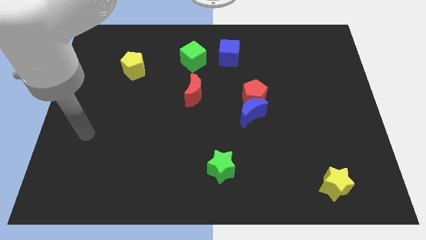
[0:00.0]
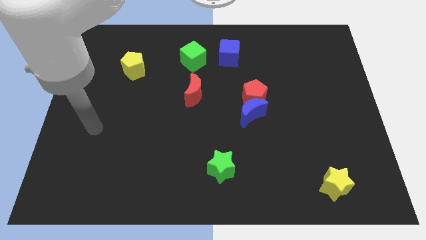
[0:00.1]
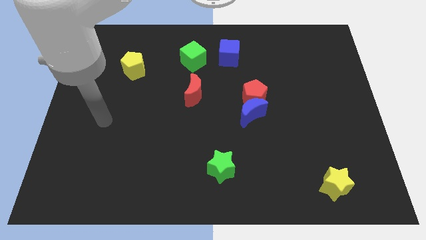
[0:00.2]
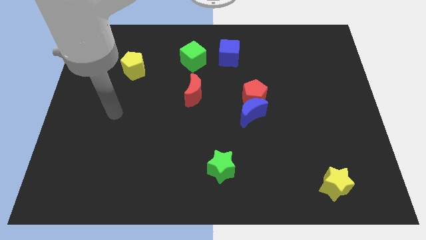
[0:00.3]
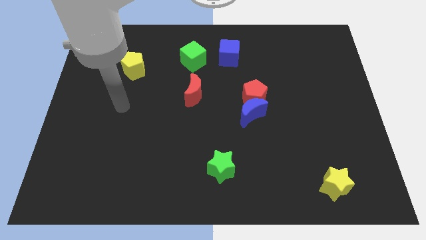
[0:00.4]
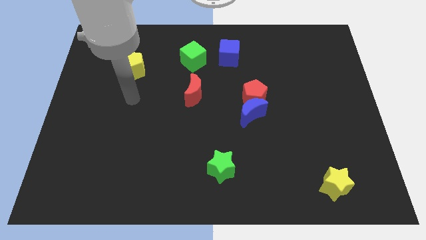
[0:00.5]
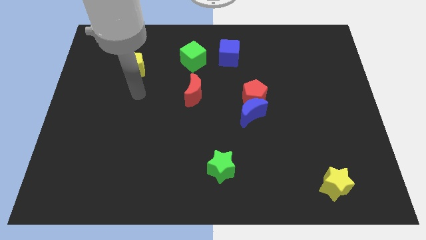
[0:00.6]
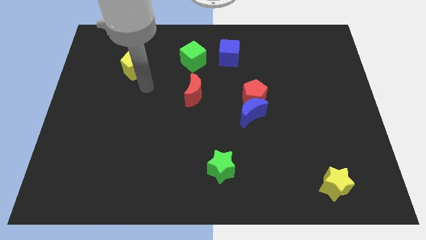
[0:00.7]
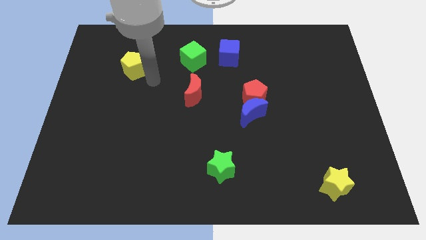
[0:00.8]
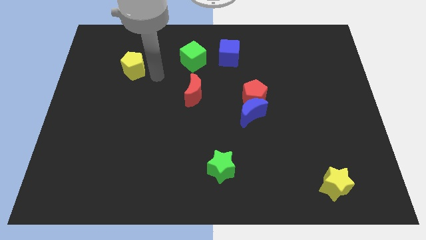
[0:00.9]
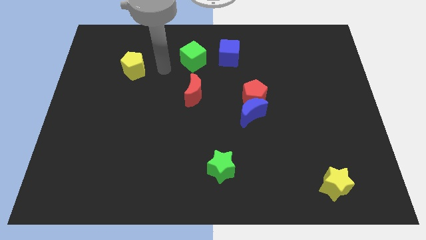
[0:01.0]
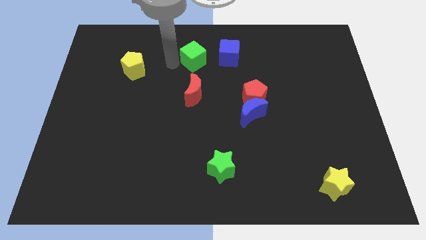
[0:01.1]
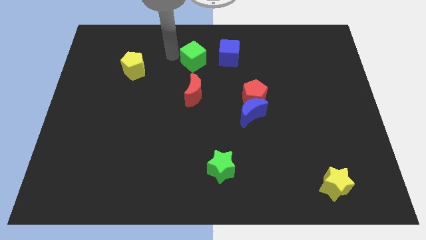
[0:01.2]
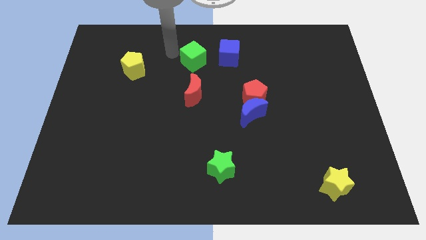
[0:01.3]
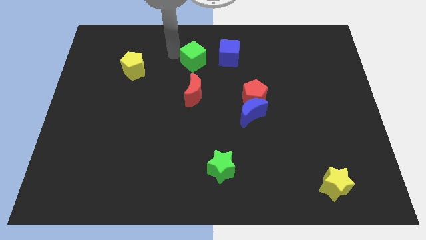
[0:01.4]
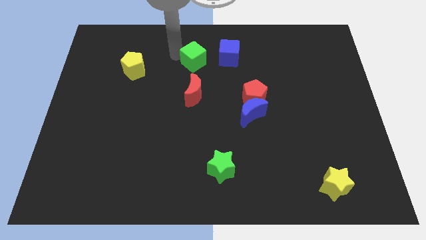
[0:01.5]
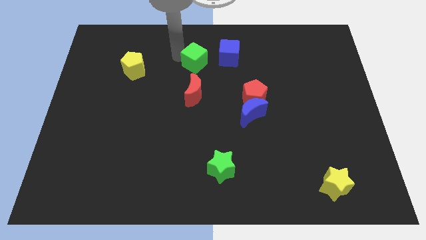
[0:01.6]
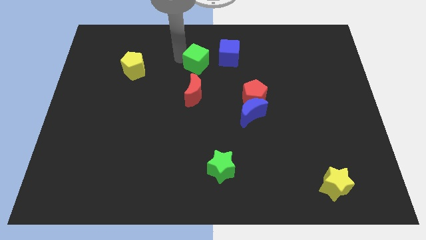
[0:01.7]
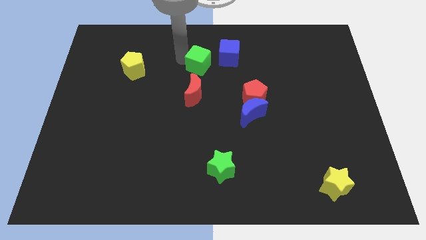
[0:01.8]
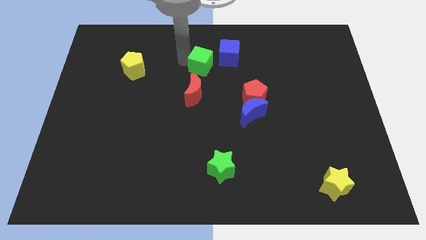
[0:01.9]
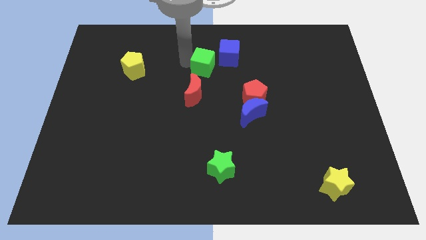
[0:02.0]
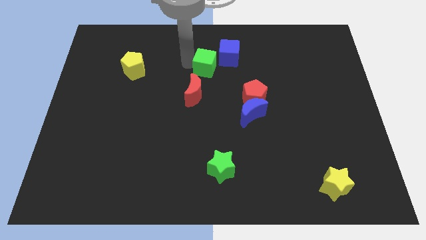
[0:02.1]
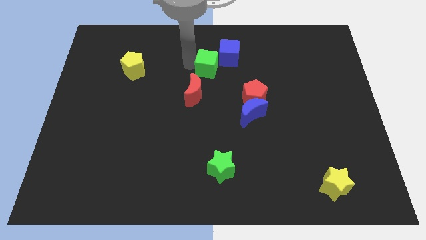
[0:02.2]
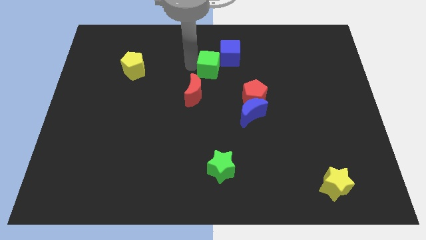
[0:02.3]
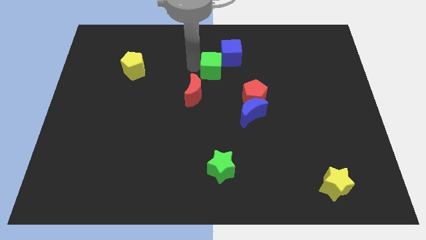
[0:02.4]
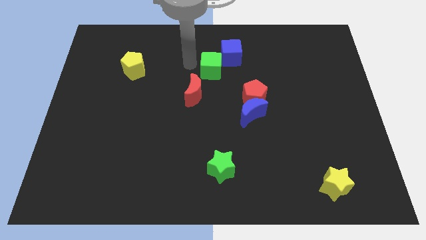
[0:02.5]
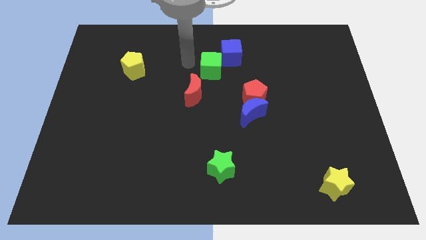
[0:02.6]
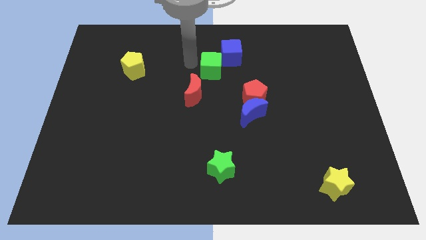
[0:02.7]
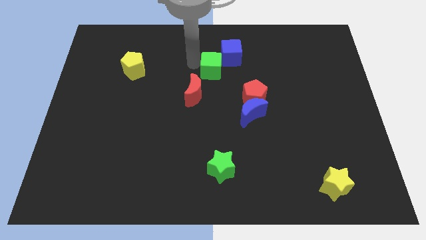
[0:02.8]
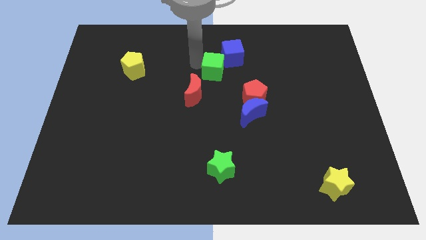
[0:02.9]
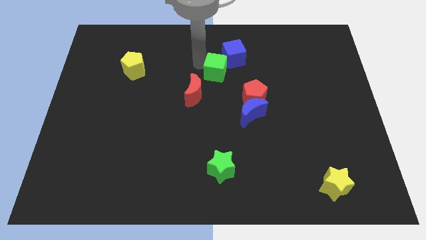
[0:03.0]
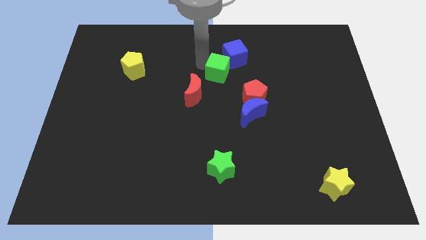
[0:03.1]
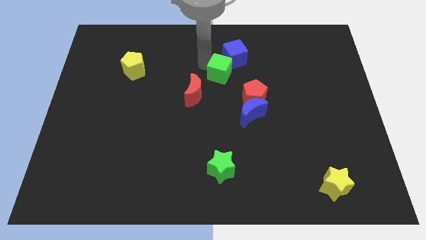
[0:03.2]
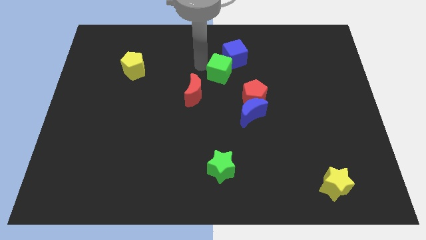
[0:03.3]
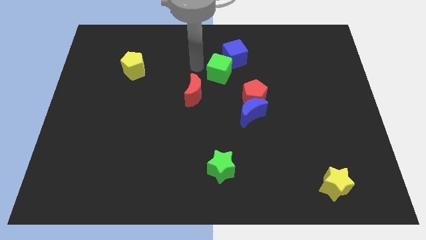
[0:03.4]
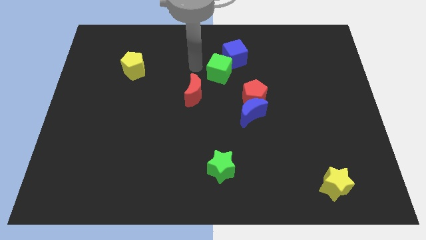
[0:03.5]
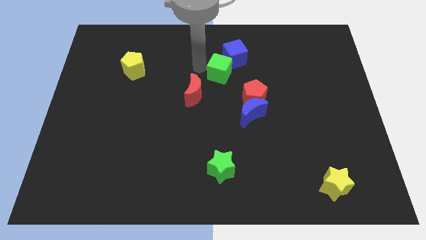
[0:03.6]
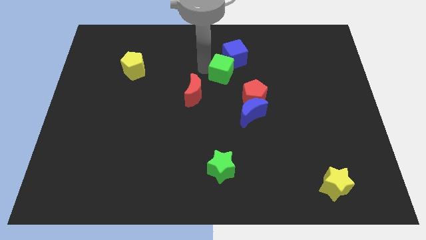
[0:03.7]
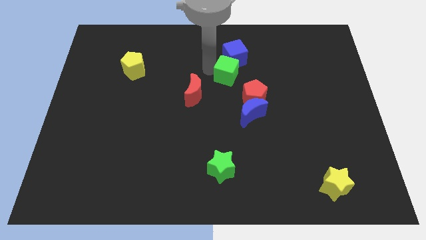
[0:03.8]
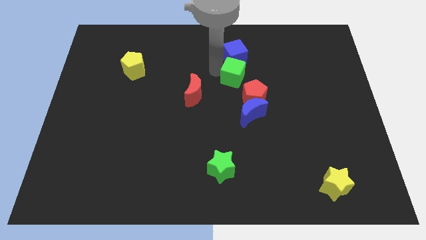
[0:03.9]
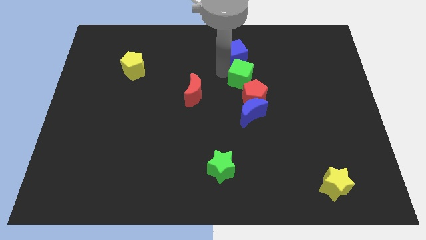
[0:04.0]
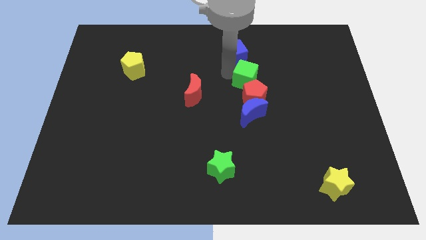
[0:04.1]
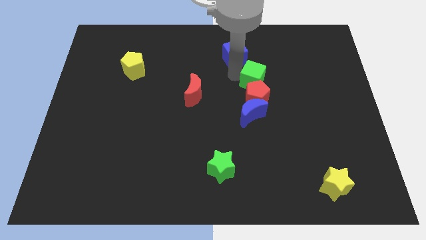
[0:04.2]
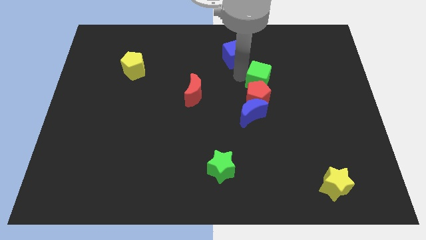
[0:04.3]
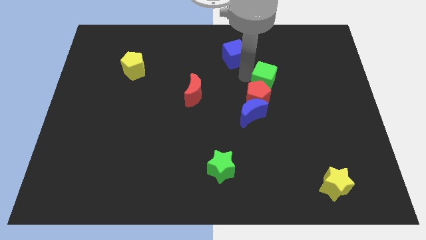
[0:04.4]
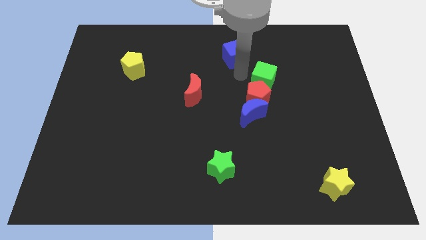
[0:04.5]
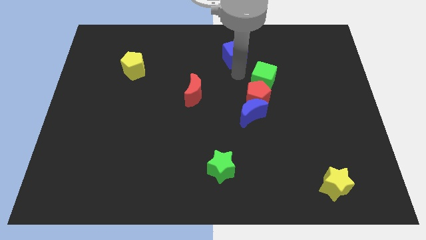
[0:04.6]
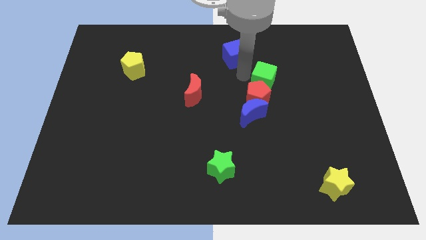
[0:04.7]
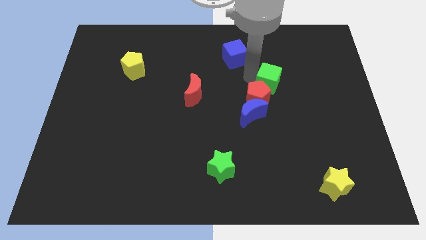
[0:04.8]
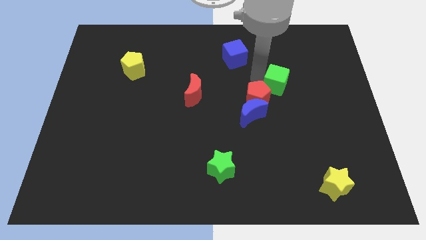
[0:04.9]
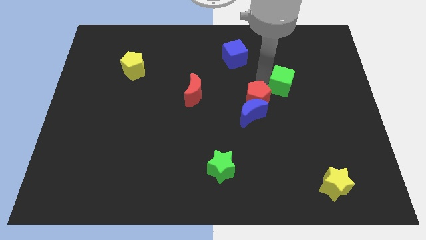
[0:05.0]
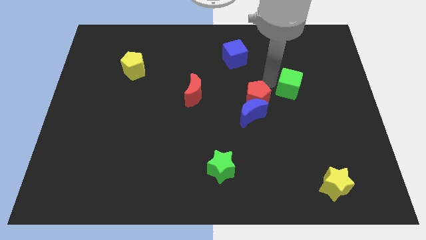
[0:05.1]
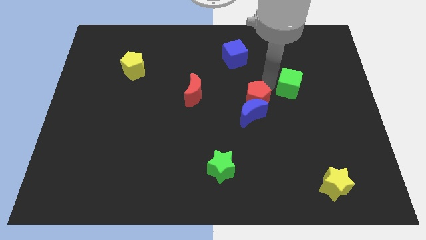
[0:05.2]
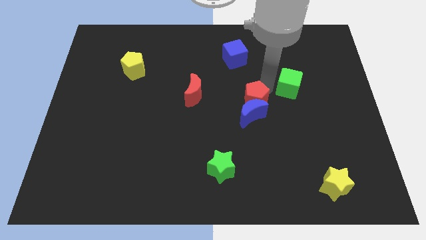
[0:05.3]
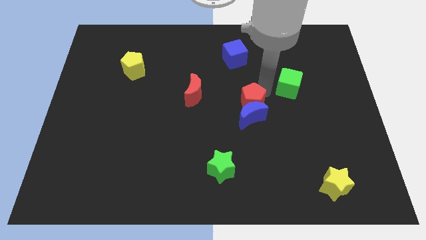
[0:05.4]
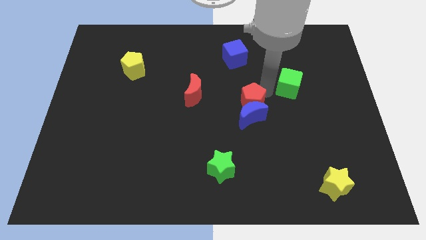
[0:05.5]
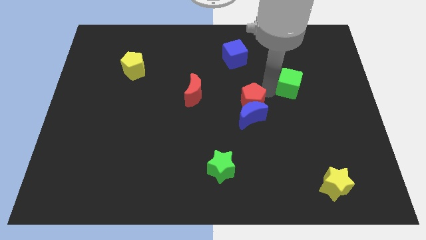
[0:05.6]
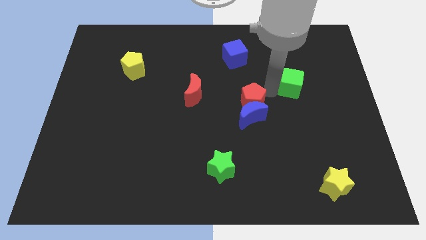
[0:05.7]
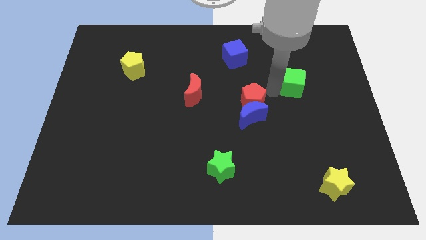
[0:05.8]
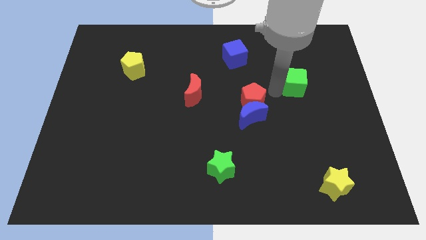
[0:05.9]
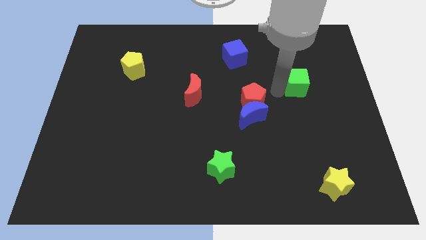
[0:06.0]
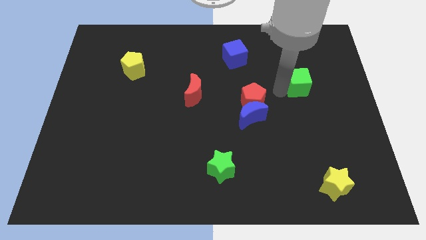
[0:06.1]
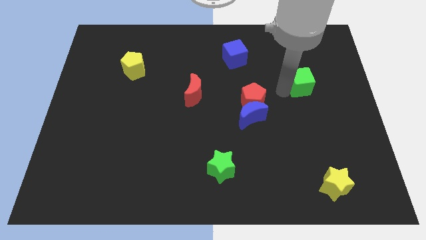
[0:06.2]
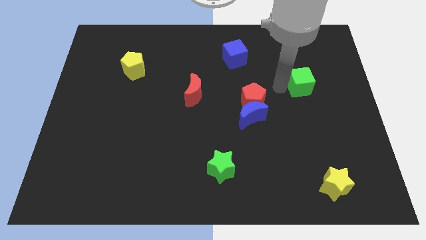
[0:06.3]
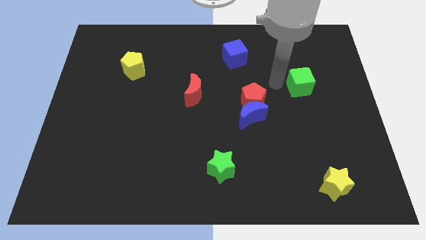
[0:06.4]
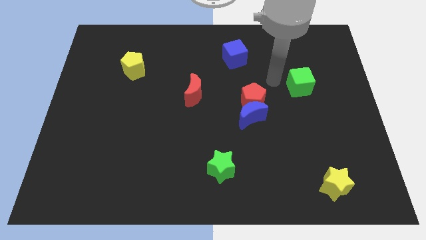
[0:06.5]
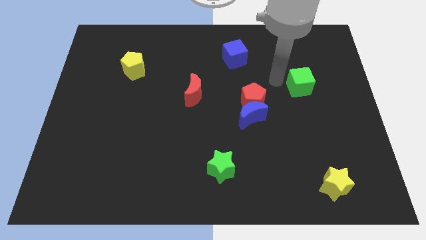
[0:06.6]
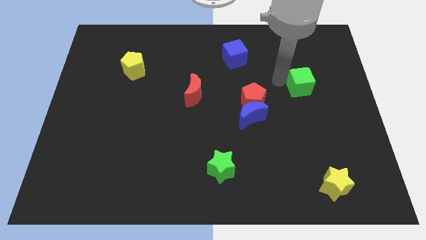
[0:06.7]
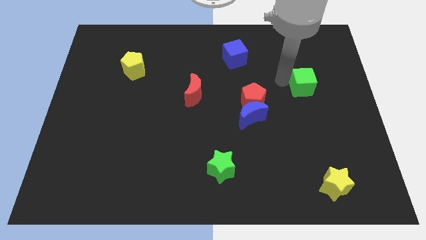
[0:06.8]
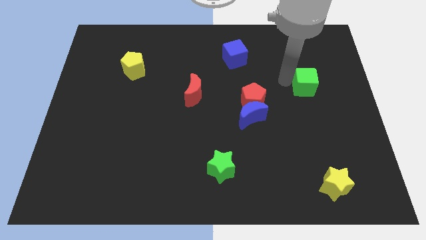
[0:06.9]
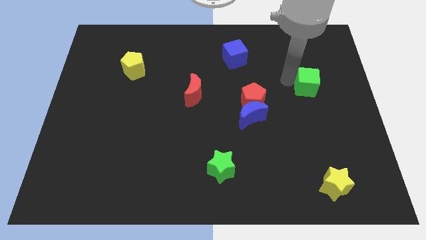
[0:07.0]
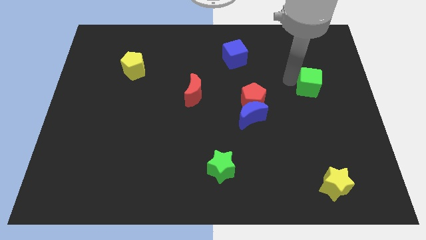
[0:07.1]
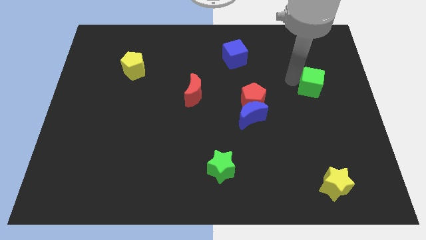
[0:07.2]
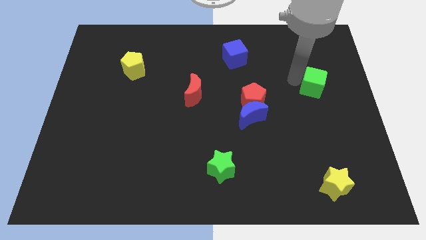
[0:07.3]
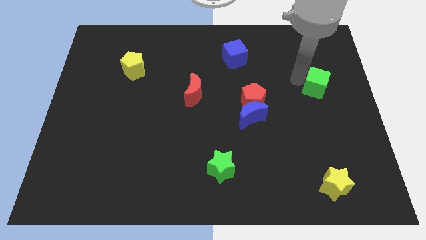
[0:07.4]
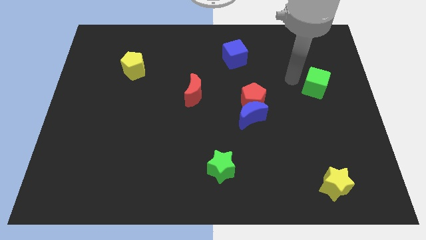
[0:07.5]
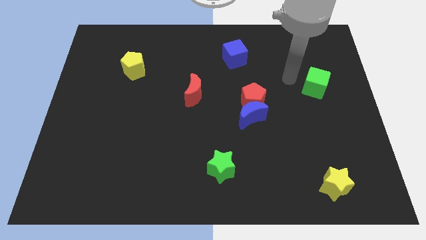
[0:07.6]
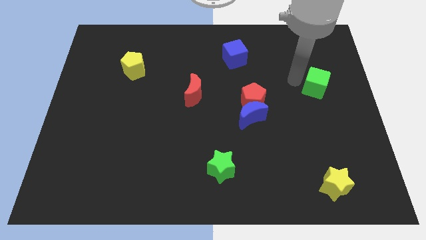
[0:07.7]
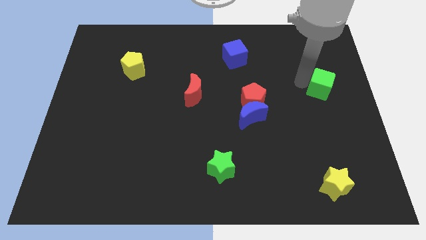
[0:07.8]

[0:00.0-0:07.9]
put the green cube to the center right
